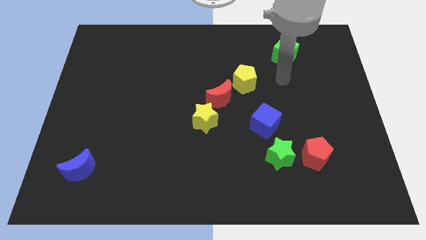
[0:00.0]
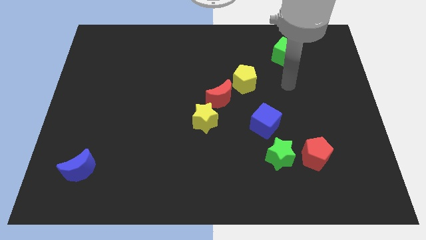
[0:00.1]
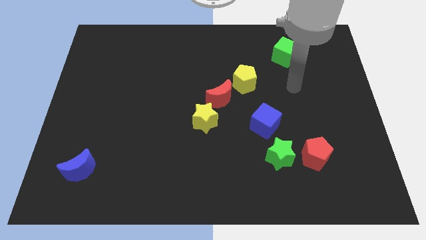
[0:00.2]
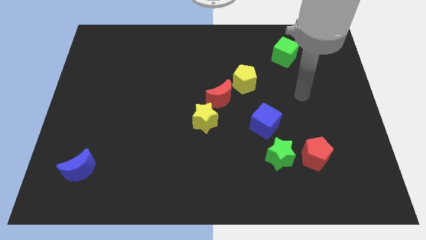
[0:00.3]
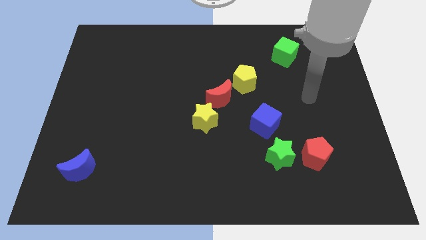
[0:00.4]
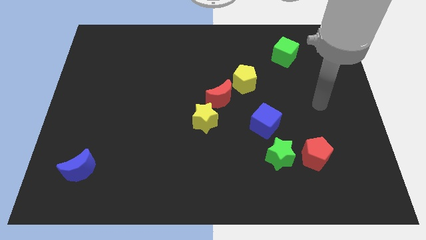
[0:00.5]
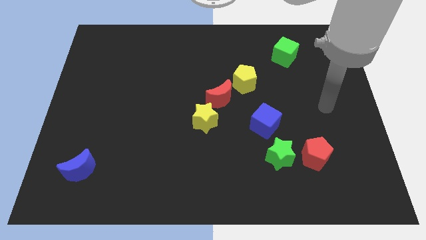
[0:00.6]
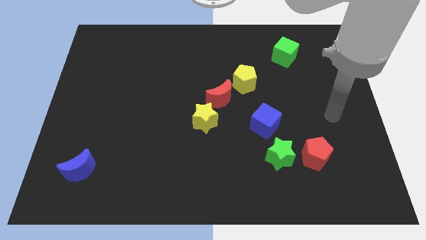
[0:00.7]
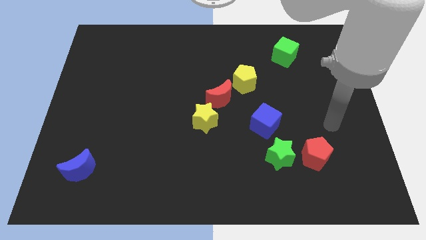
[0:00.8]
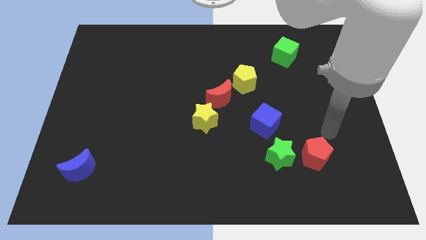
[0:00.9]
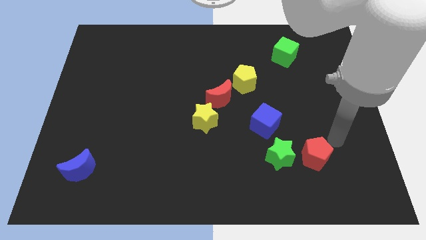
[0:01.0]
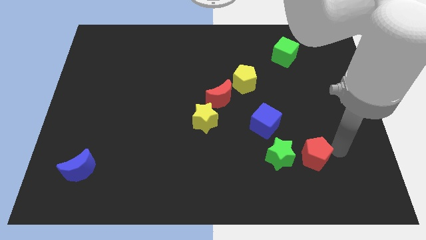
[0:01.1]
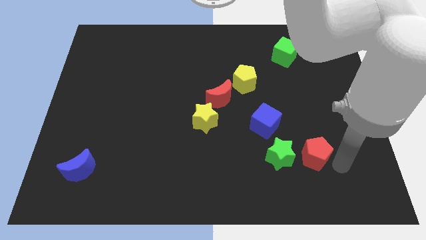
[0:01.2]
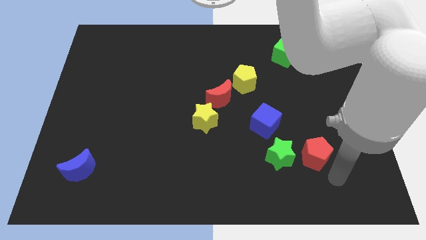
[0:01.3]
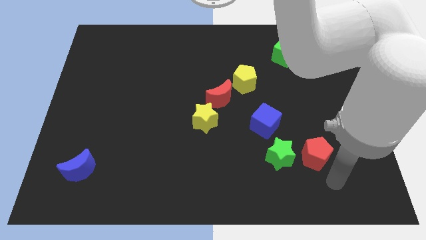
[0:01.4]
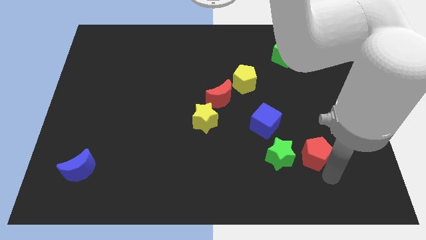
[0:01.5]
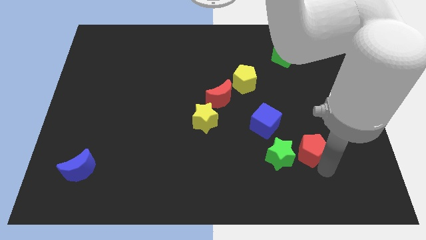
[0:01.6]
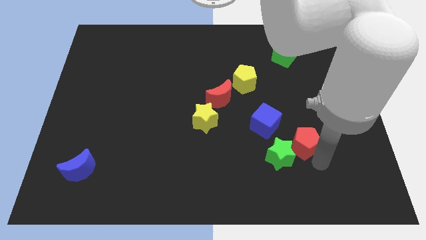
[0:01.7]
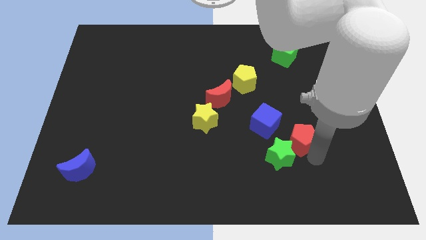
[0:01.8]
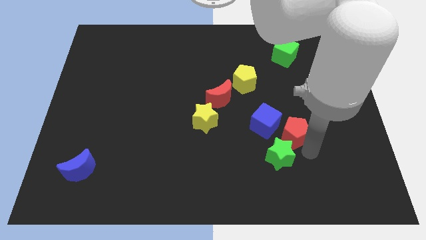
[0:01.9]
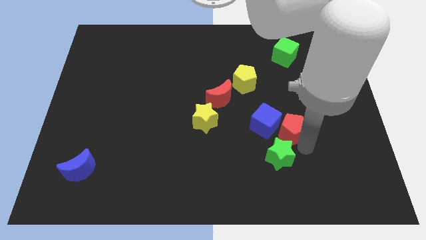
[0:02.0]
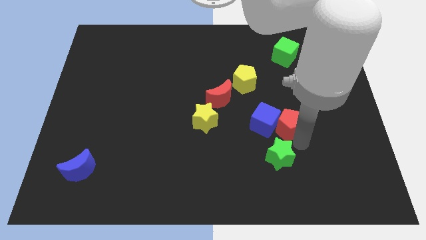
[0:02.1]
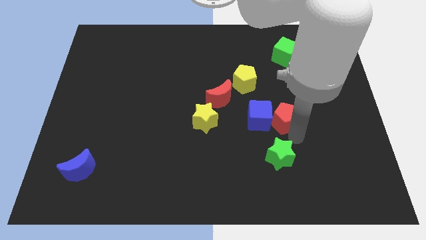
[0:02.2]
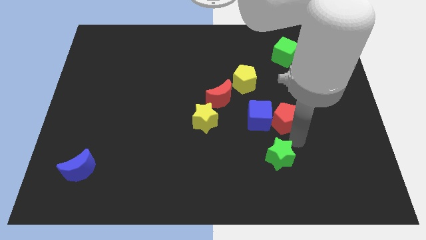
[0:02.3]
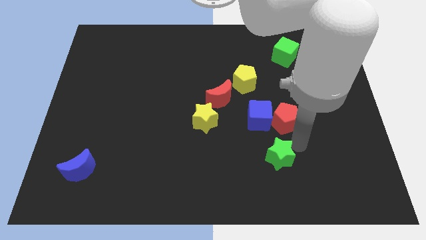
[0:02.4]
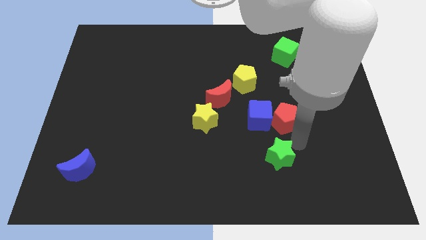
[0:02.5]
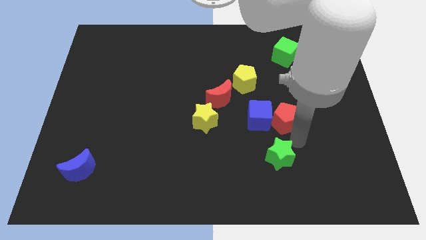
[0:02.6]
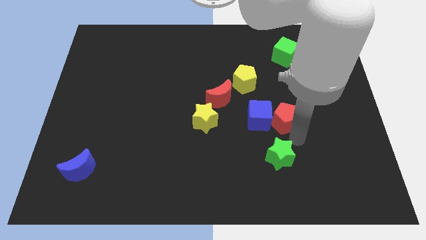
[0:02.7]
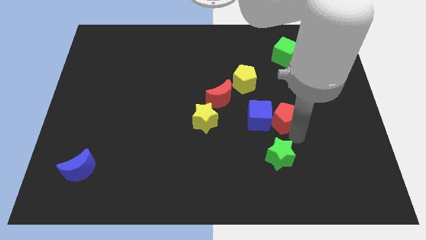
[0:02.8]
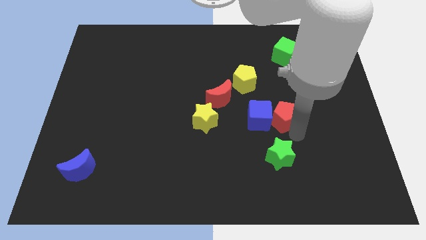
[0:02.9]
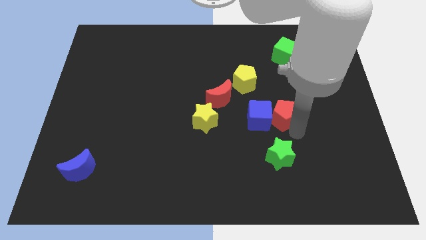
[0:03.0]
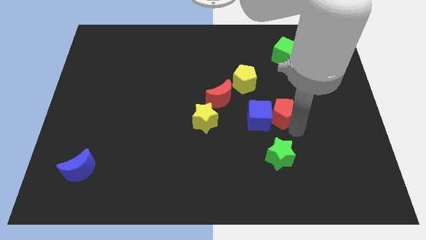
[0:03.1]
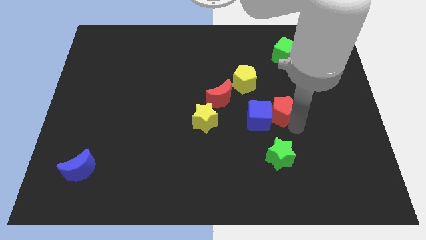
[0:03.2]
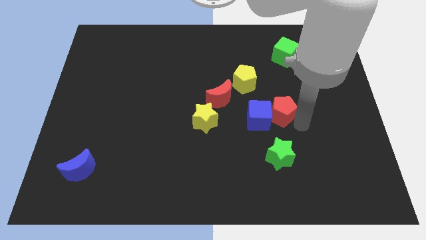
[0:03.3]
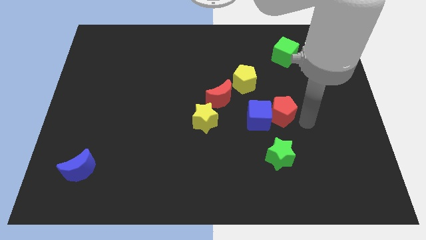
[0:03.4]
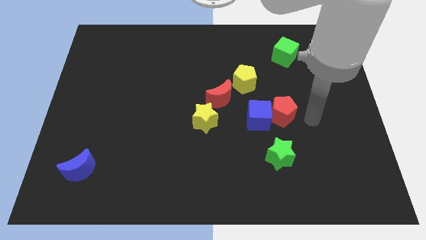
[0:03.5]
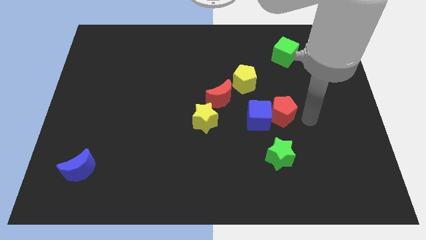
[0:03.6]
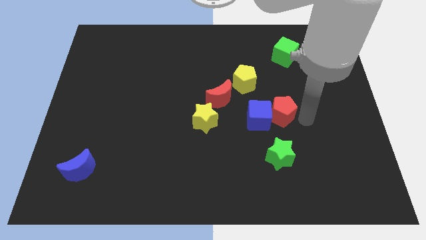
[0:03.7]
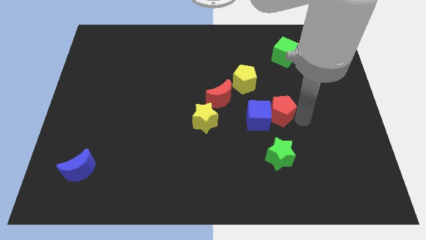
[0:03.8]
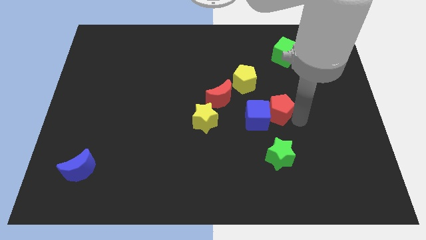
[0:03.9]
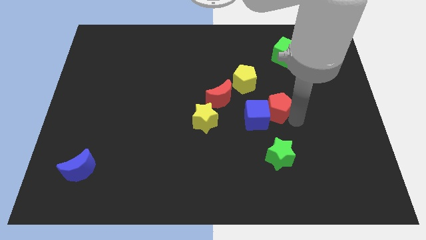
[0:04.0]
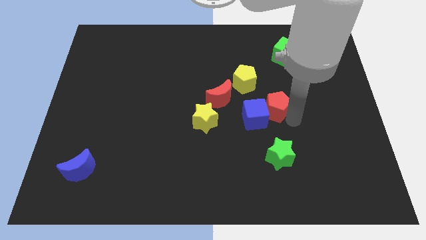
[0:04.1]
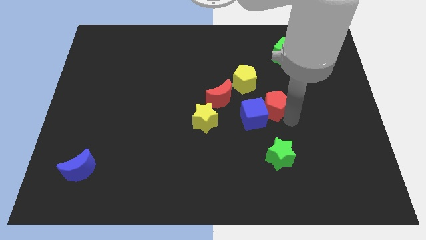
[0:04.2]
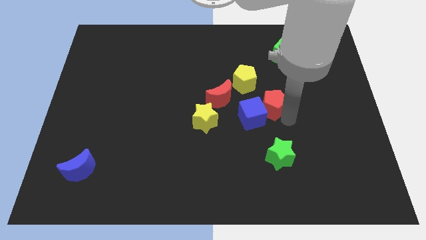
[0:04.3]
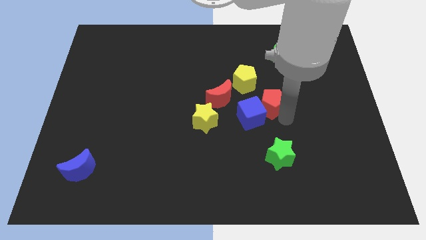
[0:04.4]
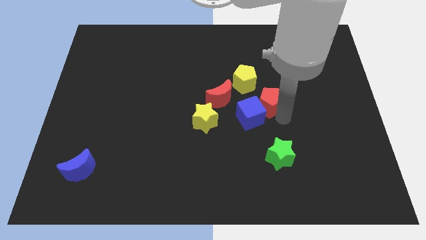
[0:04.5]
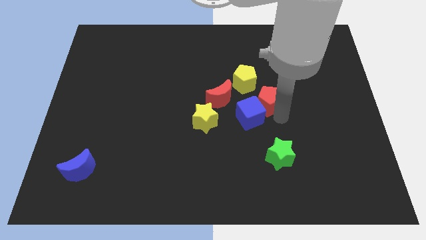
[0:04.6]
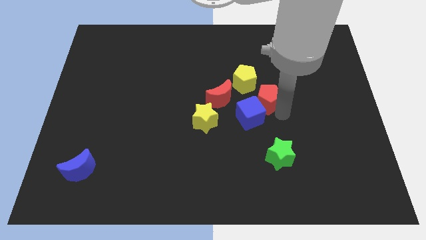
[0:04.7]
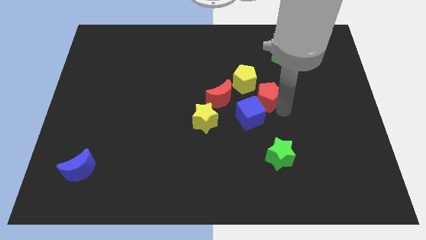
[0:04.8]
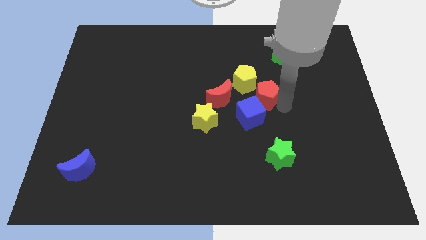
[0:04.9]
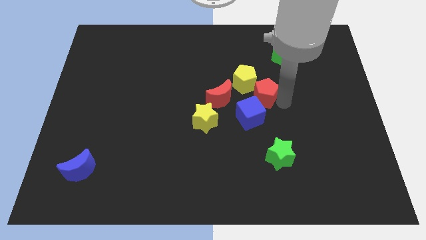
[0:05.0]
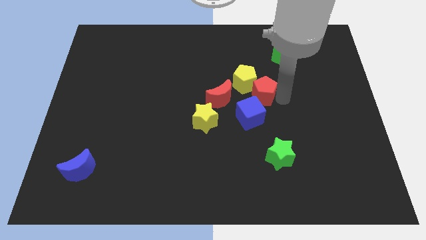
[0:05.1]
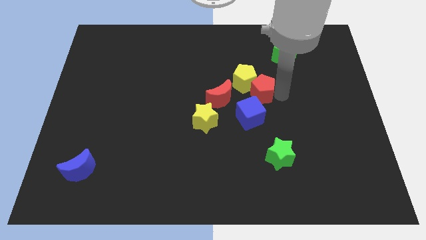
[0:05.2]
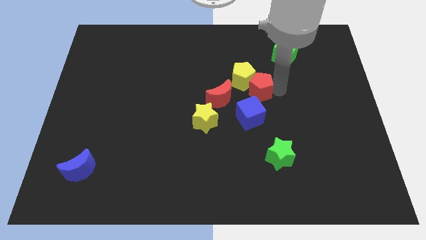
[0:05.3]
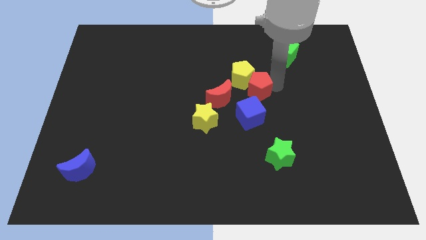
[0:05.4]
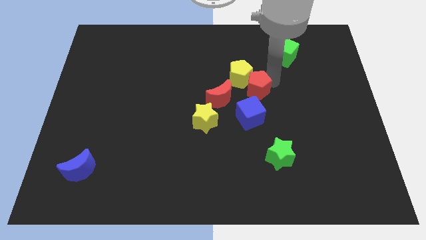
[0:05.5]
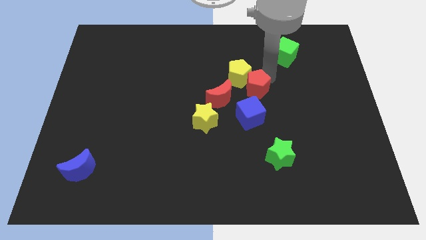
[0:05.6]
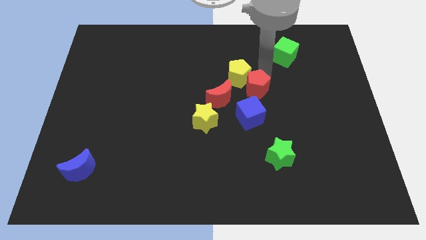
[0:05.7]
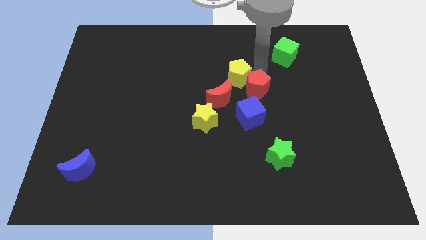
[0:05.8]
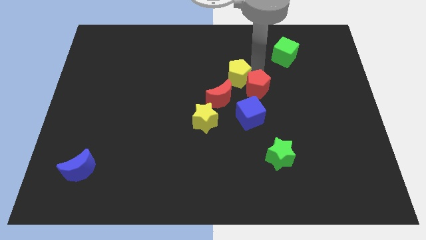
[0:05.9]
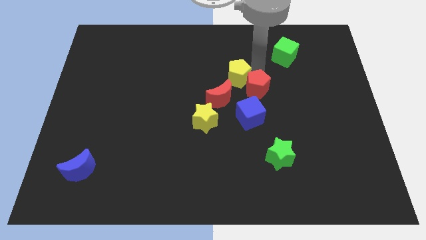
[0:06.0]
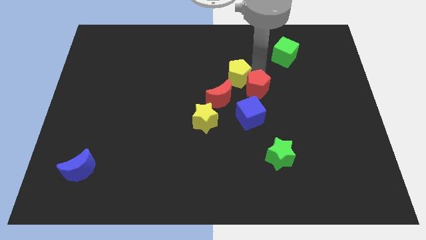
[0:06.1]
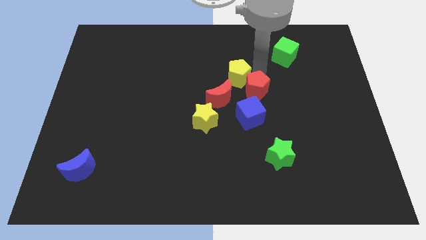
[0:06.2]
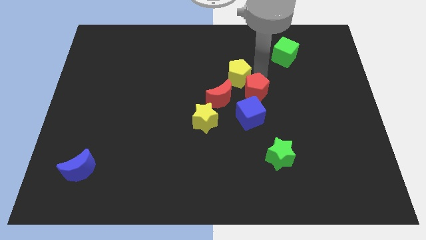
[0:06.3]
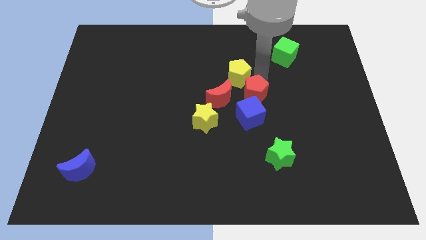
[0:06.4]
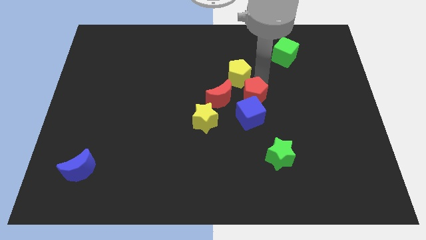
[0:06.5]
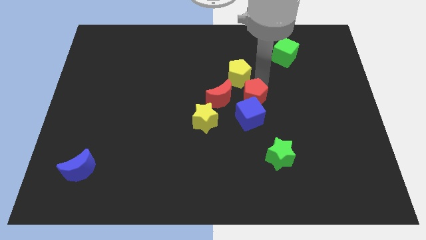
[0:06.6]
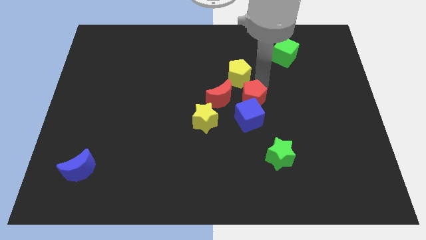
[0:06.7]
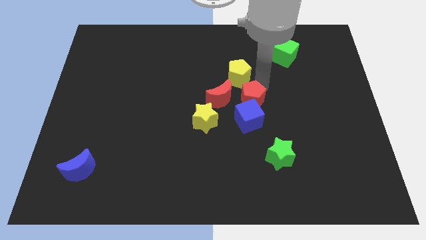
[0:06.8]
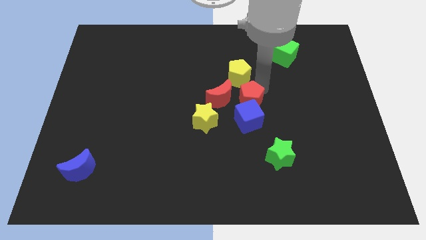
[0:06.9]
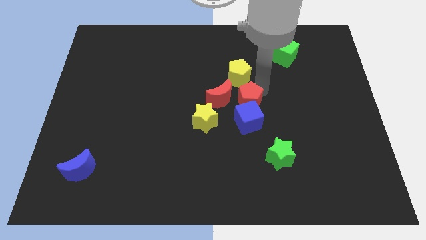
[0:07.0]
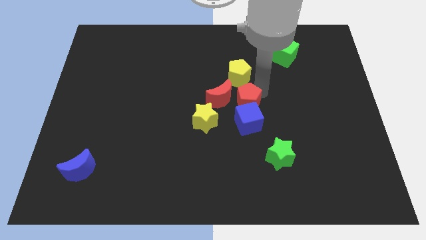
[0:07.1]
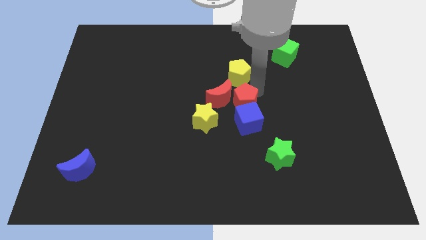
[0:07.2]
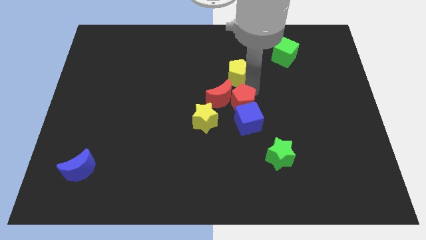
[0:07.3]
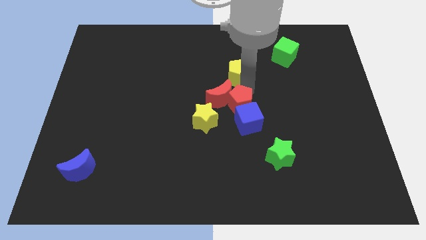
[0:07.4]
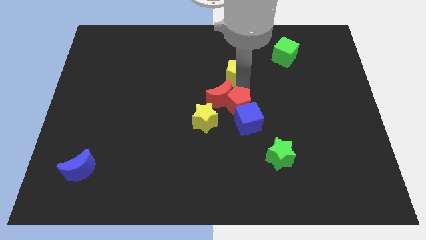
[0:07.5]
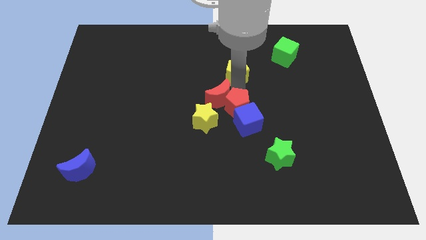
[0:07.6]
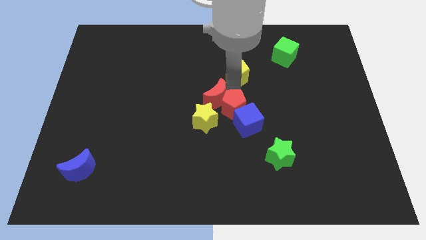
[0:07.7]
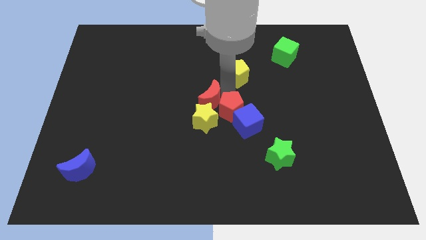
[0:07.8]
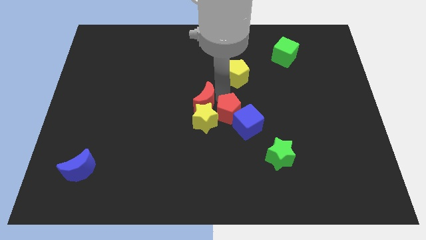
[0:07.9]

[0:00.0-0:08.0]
put the red pentagon close to the yellow star
